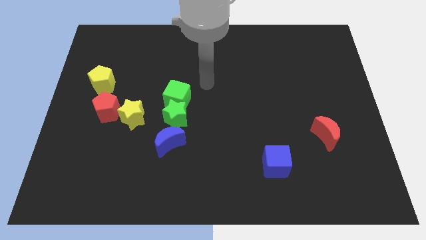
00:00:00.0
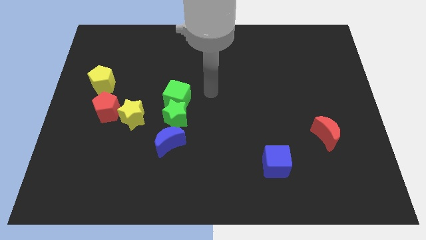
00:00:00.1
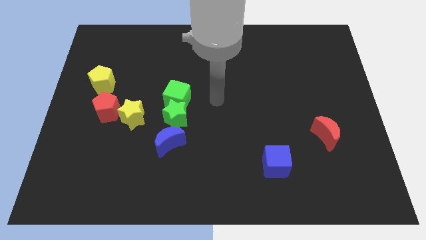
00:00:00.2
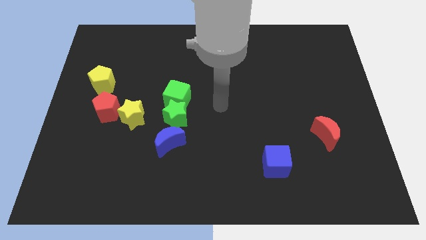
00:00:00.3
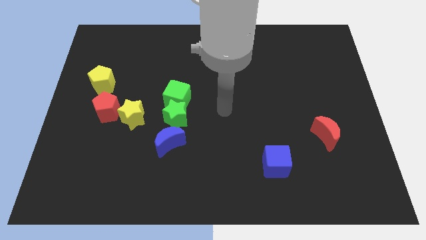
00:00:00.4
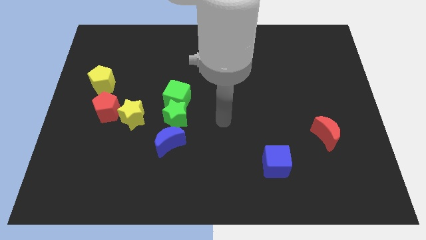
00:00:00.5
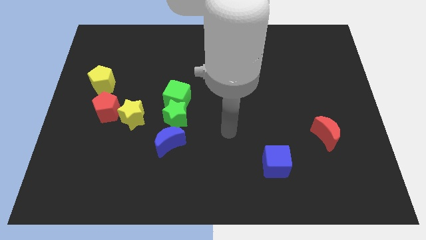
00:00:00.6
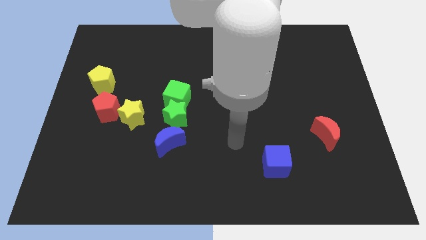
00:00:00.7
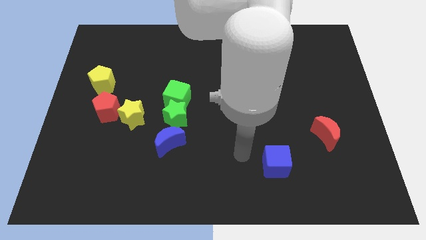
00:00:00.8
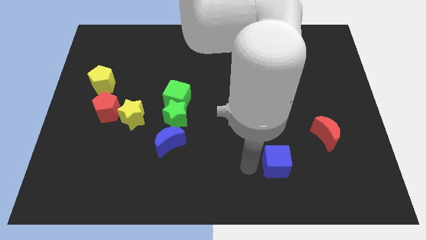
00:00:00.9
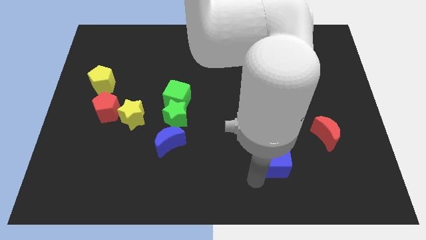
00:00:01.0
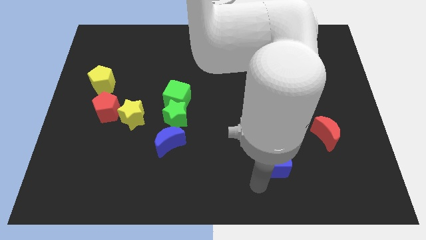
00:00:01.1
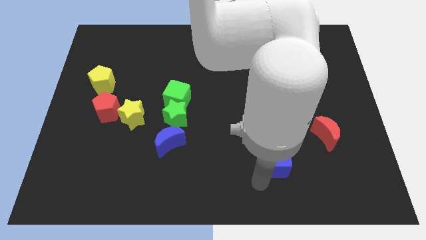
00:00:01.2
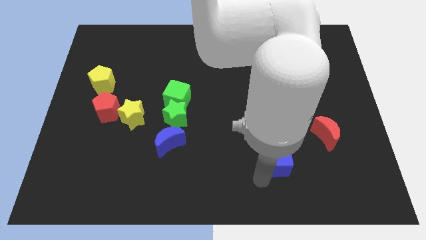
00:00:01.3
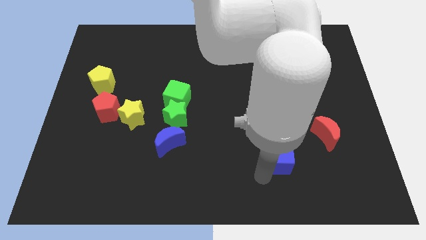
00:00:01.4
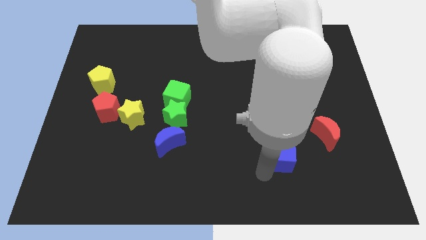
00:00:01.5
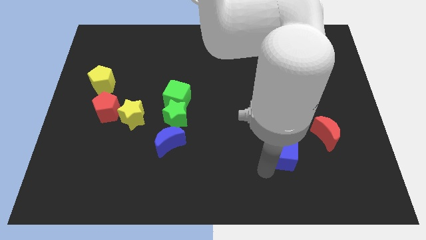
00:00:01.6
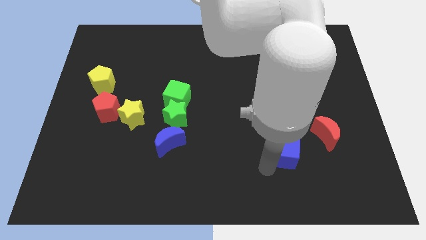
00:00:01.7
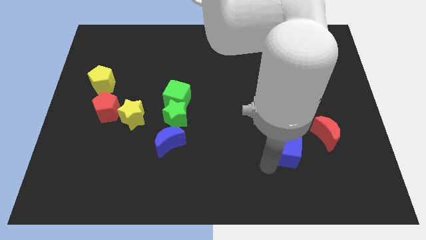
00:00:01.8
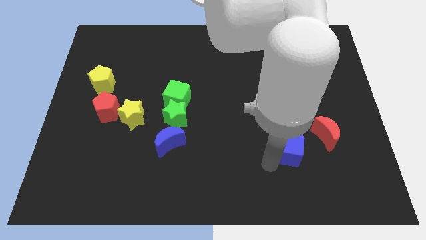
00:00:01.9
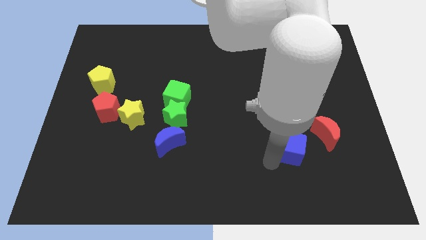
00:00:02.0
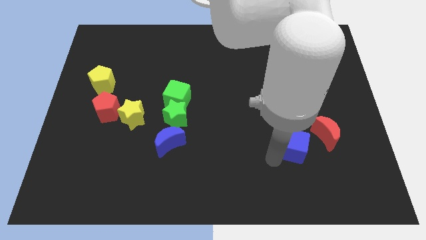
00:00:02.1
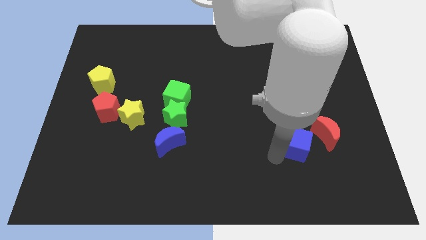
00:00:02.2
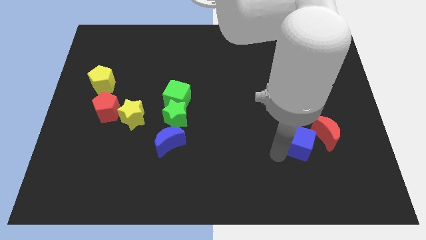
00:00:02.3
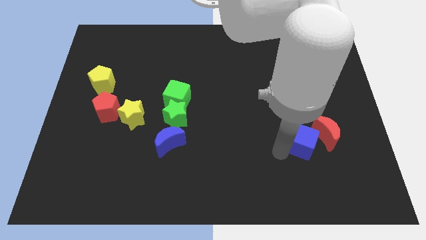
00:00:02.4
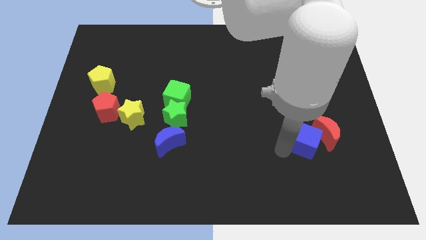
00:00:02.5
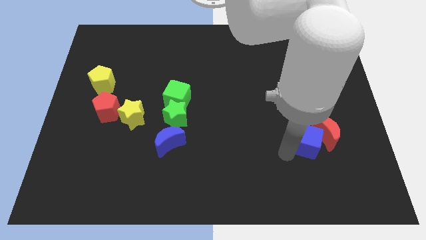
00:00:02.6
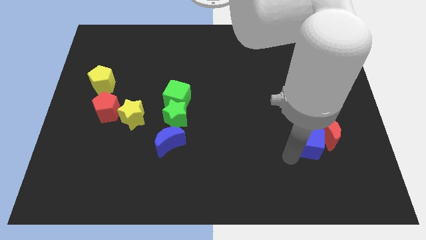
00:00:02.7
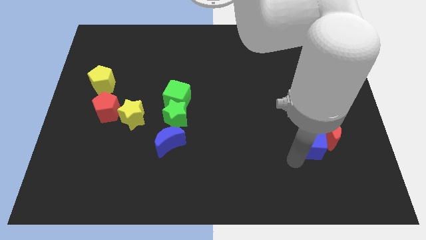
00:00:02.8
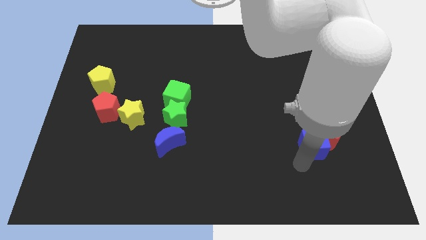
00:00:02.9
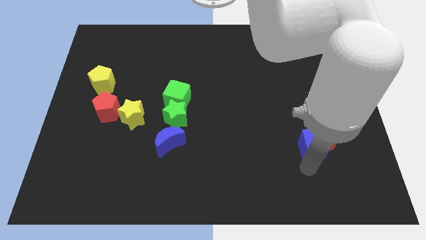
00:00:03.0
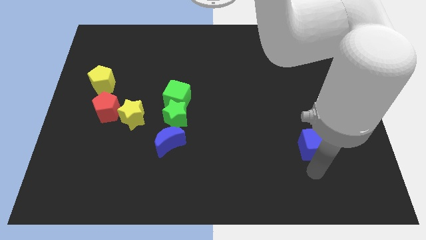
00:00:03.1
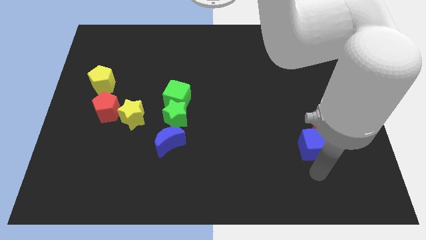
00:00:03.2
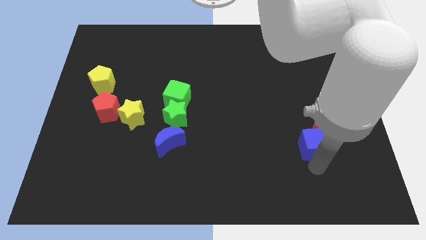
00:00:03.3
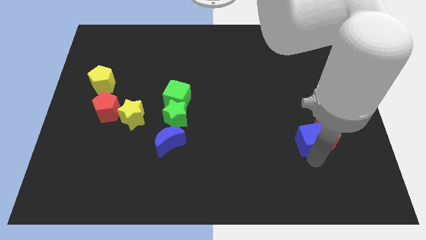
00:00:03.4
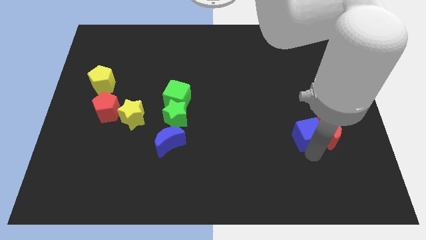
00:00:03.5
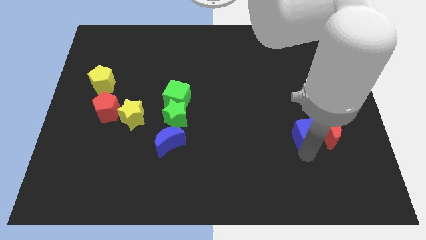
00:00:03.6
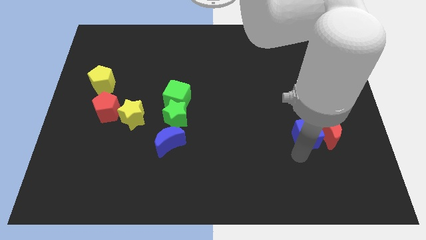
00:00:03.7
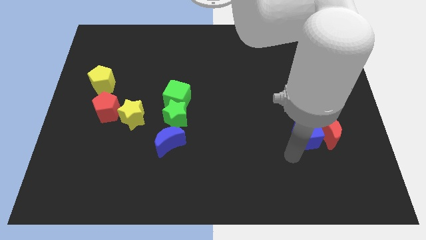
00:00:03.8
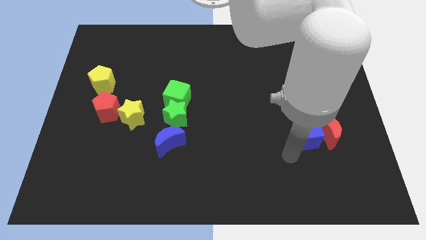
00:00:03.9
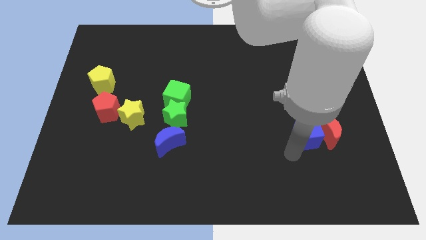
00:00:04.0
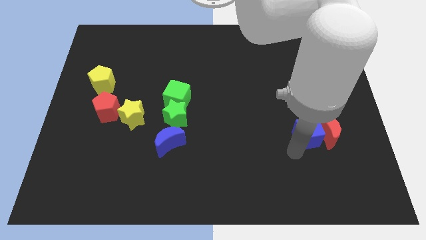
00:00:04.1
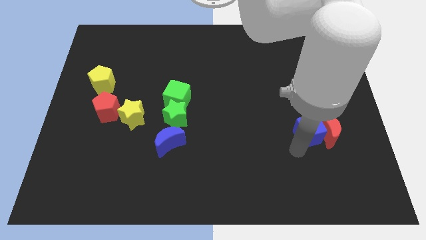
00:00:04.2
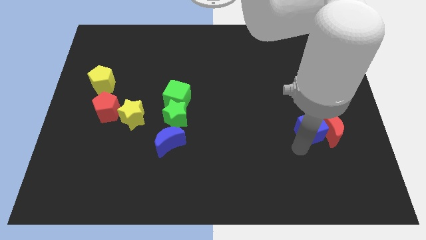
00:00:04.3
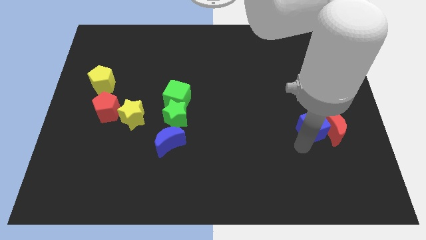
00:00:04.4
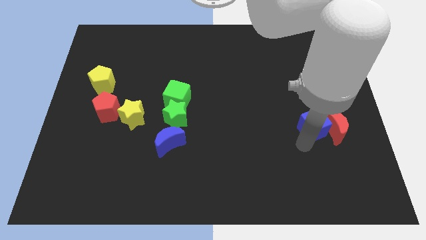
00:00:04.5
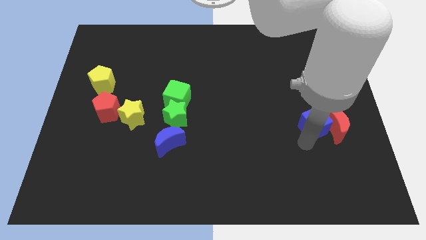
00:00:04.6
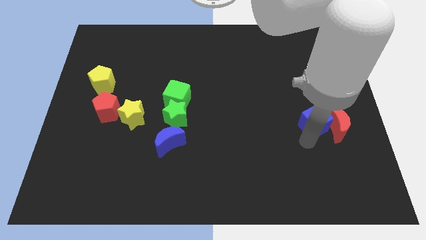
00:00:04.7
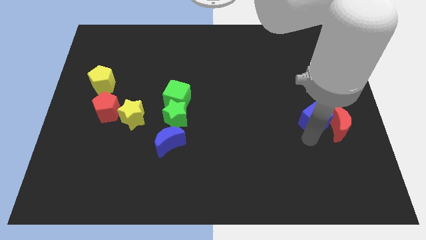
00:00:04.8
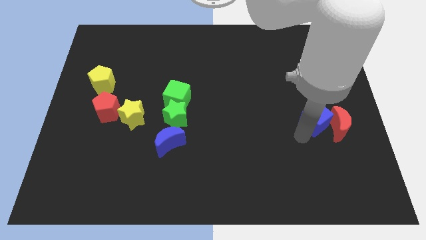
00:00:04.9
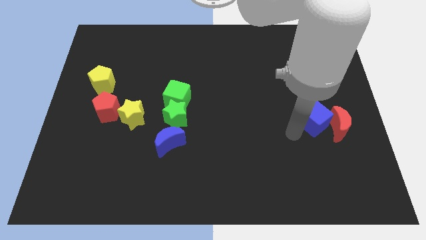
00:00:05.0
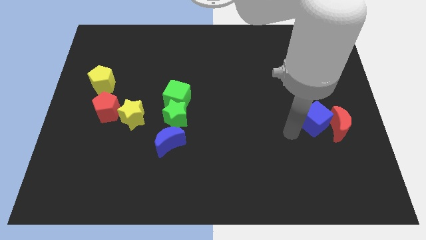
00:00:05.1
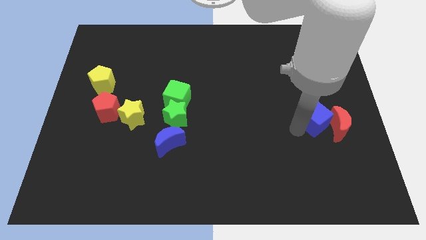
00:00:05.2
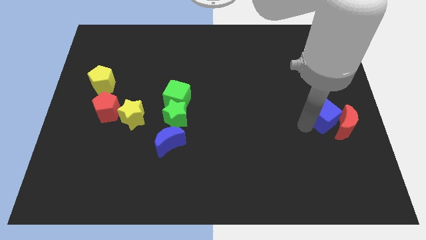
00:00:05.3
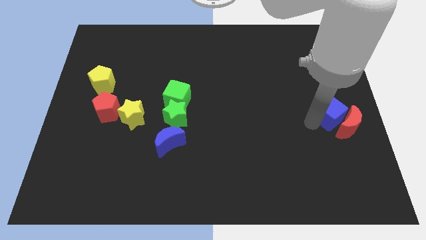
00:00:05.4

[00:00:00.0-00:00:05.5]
put the blue cube to the right side

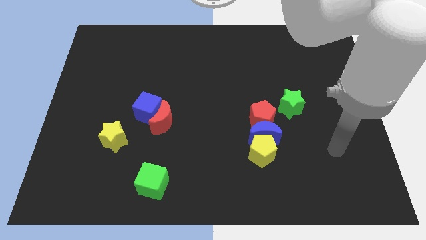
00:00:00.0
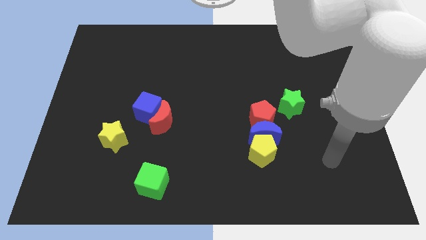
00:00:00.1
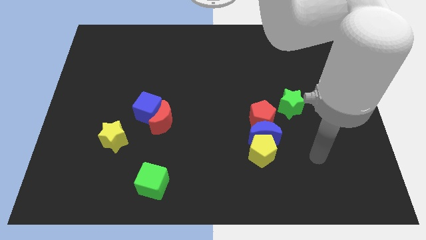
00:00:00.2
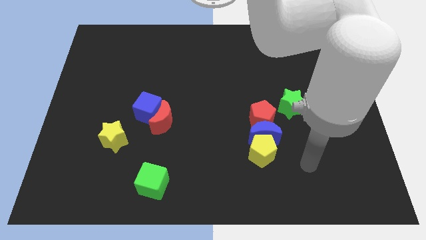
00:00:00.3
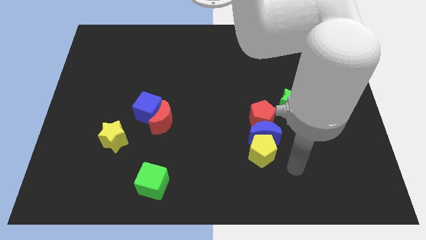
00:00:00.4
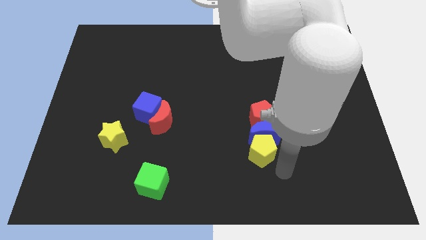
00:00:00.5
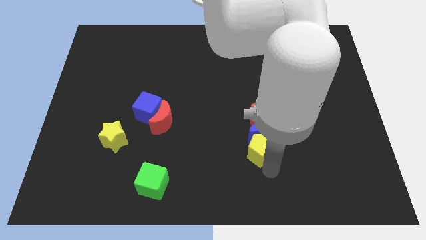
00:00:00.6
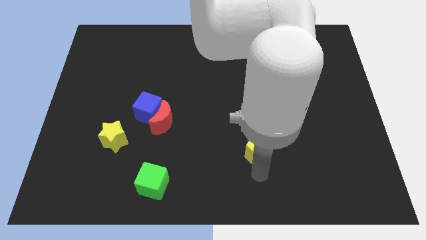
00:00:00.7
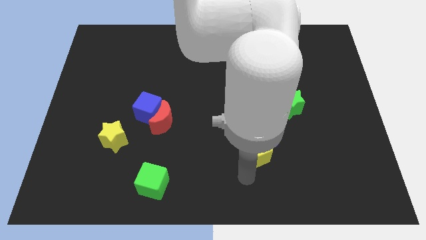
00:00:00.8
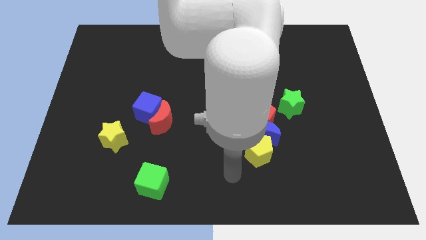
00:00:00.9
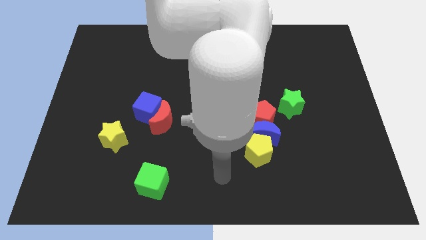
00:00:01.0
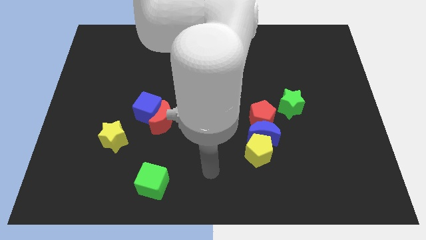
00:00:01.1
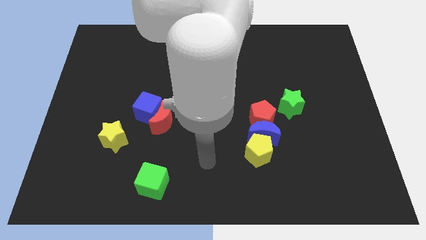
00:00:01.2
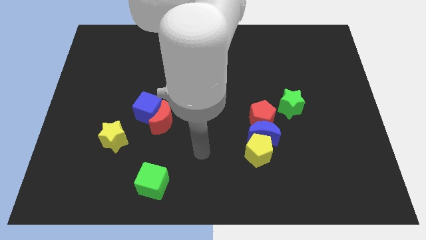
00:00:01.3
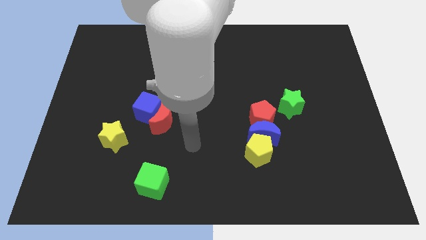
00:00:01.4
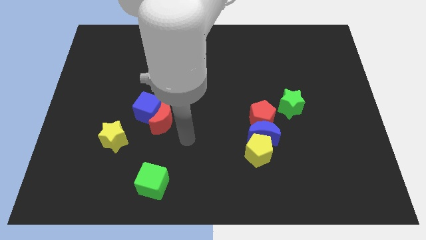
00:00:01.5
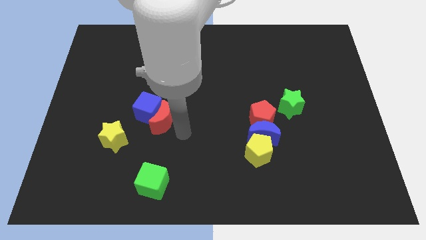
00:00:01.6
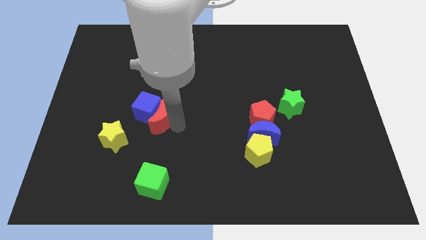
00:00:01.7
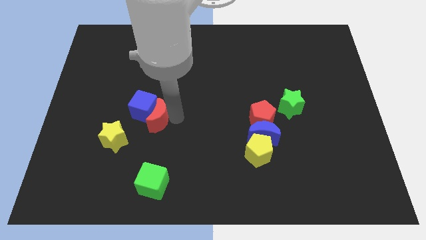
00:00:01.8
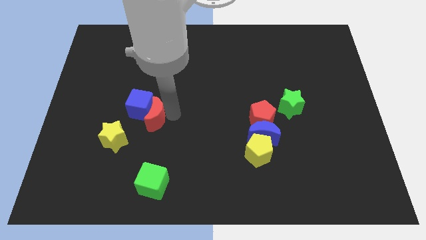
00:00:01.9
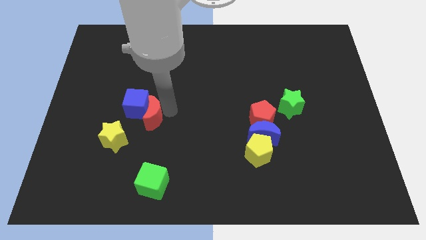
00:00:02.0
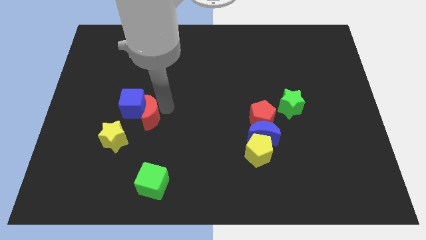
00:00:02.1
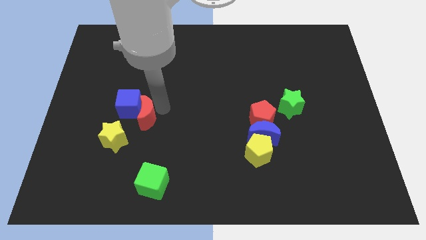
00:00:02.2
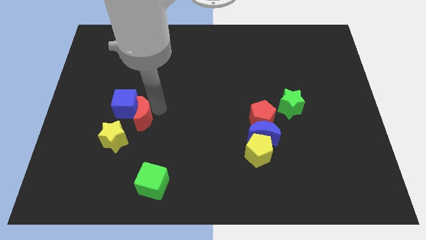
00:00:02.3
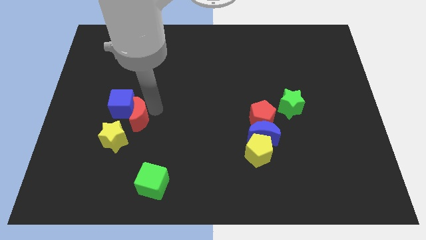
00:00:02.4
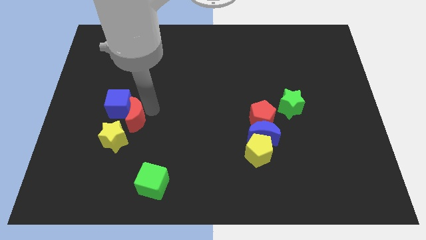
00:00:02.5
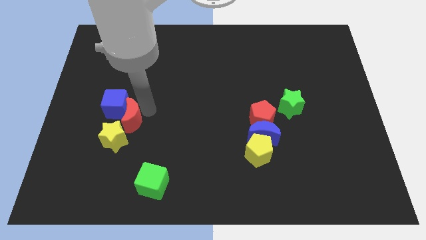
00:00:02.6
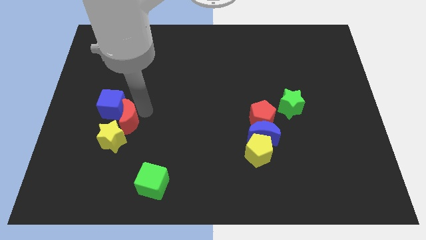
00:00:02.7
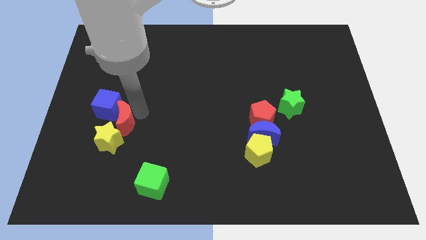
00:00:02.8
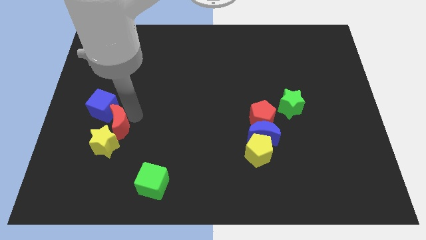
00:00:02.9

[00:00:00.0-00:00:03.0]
move the blue cube to the left side
